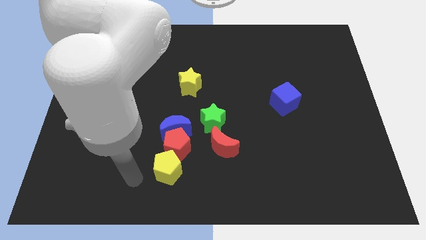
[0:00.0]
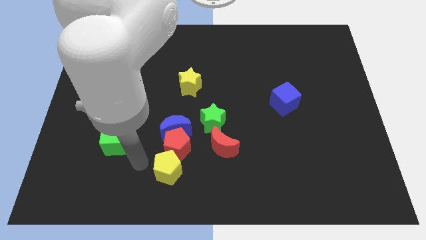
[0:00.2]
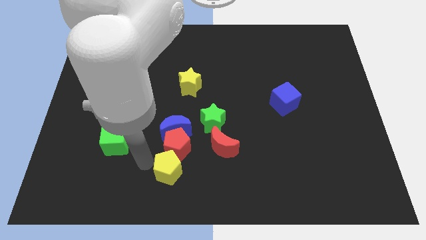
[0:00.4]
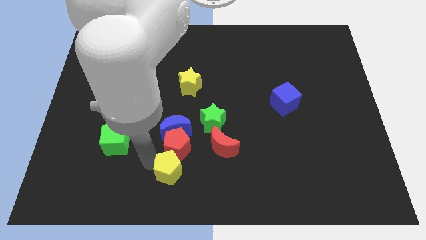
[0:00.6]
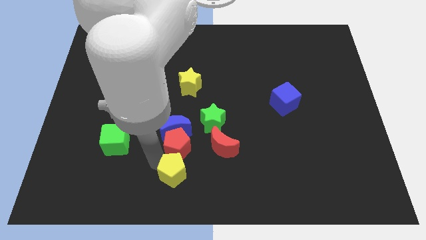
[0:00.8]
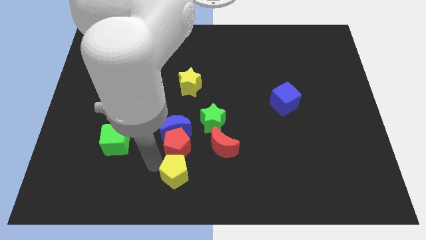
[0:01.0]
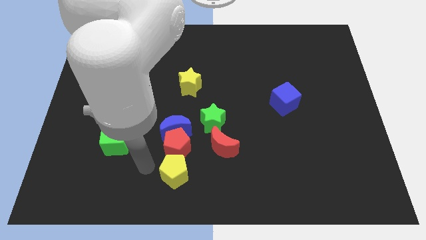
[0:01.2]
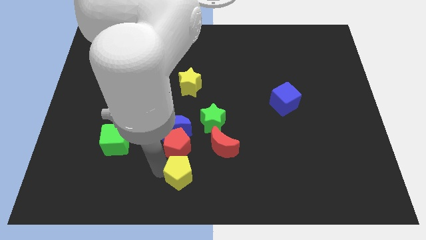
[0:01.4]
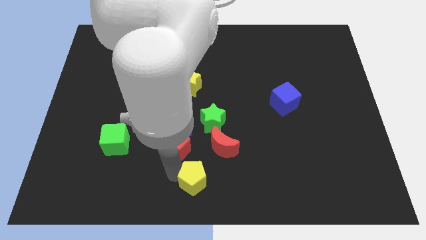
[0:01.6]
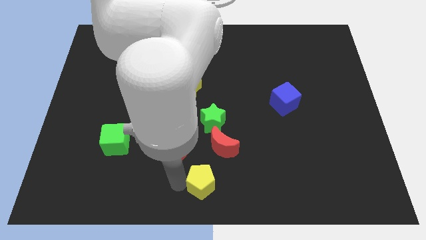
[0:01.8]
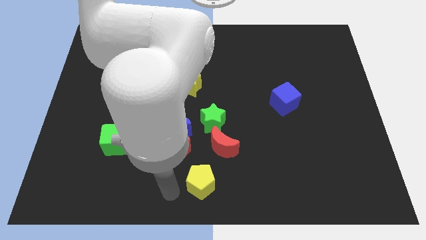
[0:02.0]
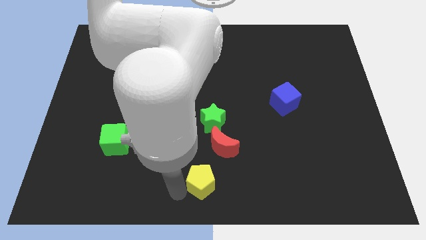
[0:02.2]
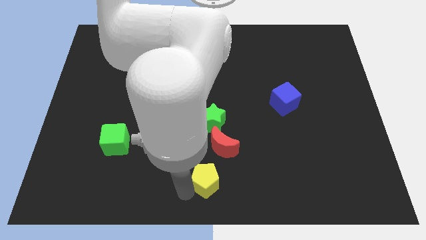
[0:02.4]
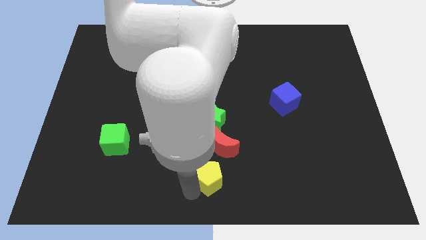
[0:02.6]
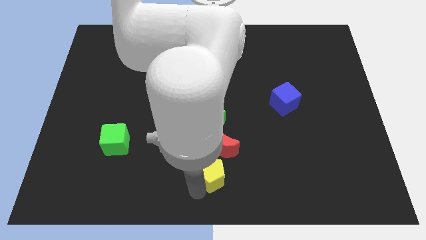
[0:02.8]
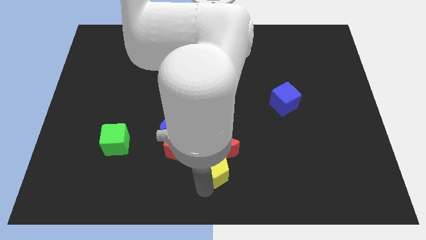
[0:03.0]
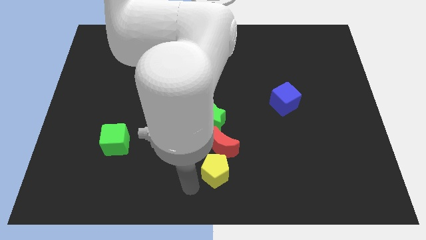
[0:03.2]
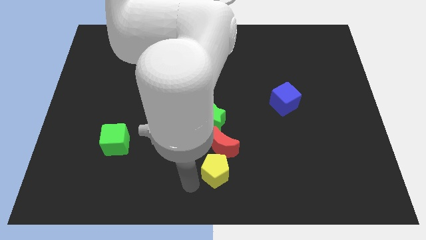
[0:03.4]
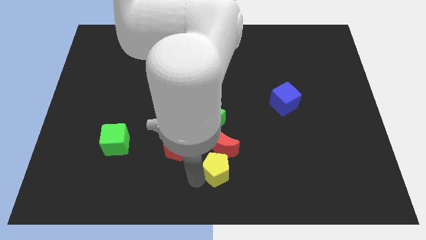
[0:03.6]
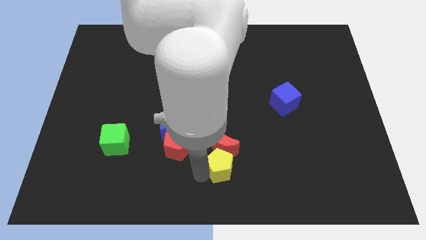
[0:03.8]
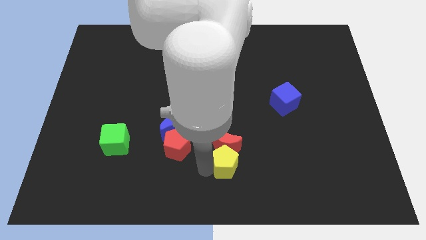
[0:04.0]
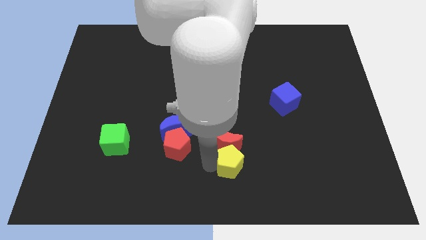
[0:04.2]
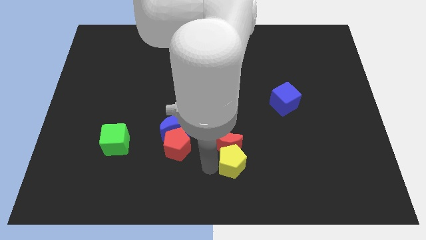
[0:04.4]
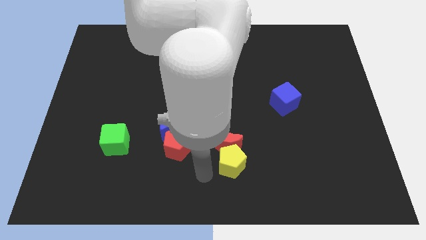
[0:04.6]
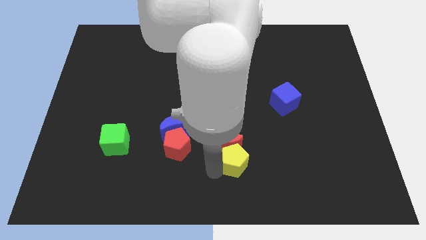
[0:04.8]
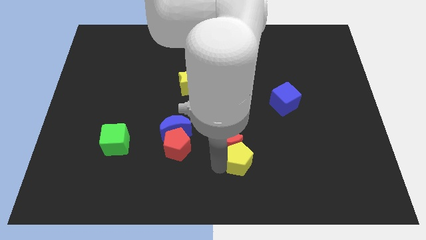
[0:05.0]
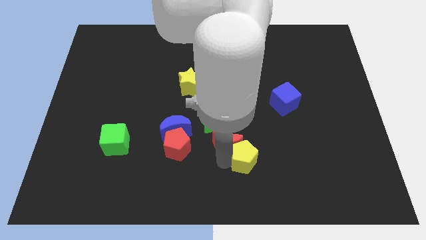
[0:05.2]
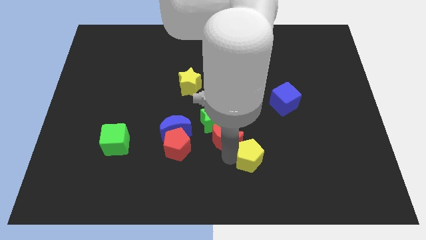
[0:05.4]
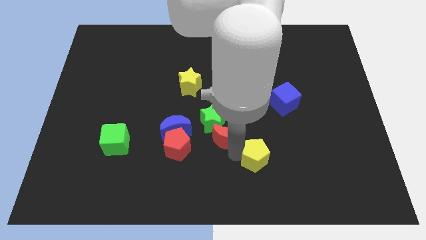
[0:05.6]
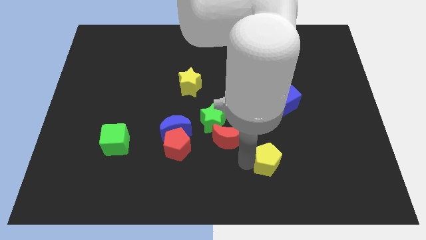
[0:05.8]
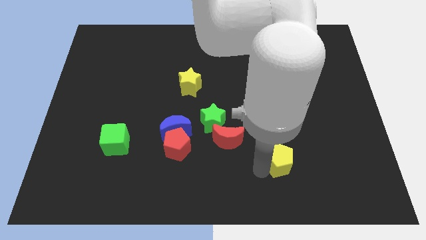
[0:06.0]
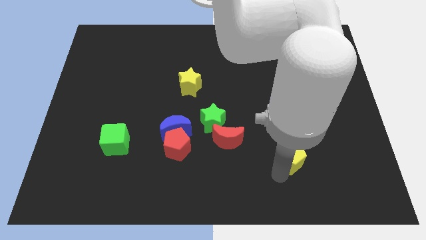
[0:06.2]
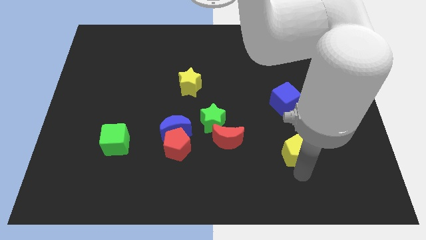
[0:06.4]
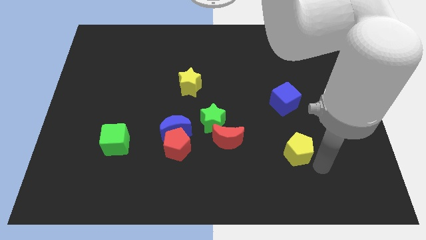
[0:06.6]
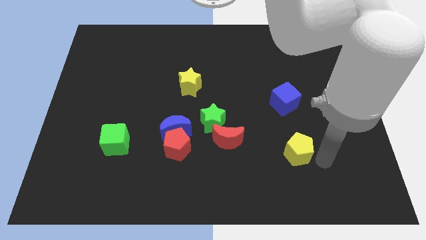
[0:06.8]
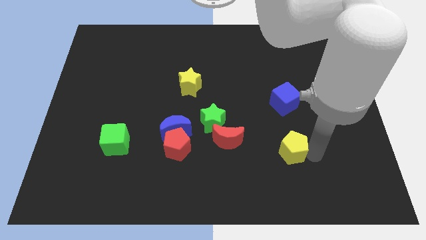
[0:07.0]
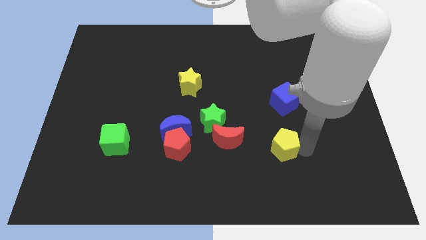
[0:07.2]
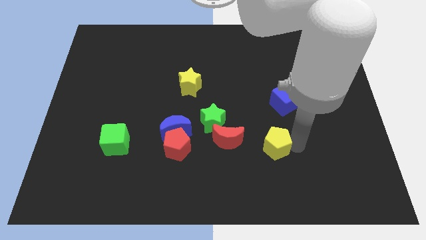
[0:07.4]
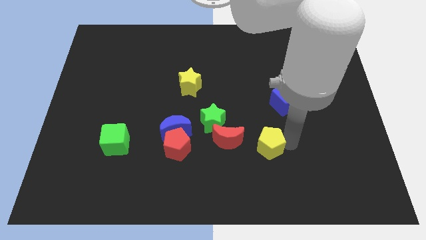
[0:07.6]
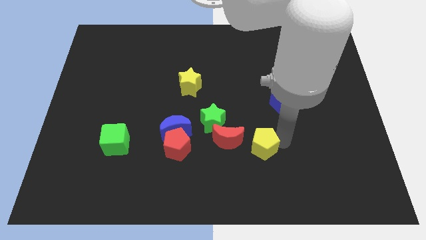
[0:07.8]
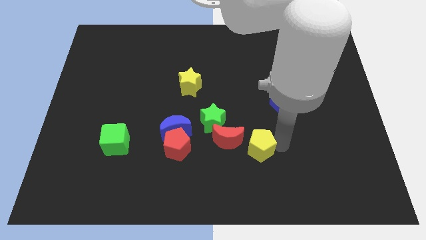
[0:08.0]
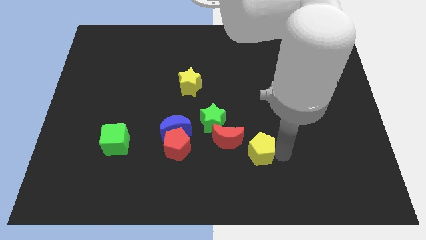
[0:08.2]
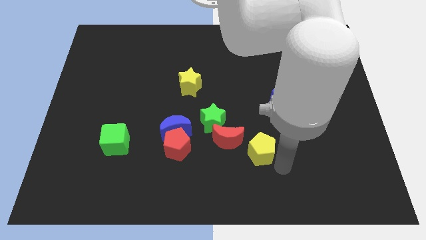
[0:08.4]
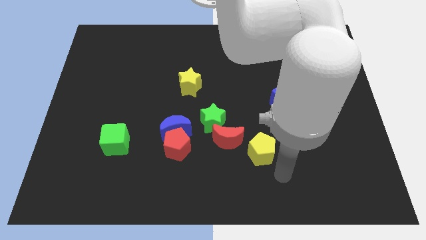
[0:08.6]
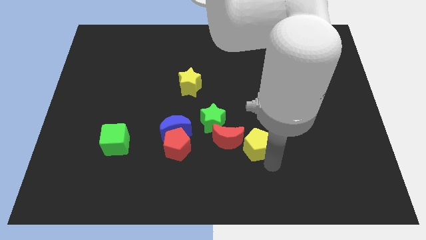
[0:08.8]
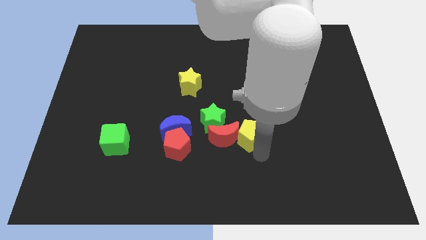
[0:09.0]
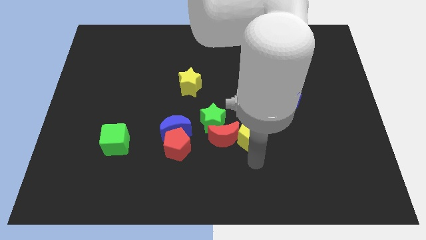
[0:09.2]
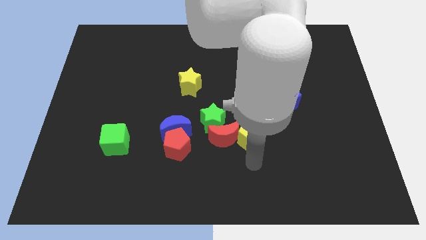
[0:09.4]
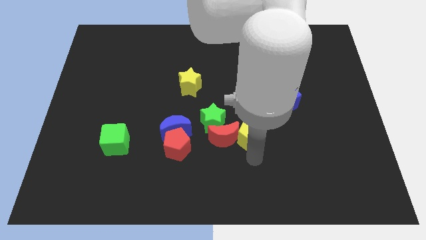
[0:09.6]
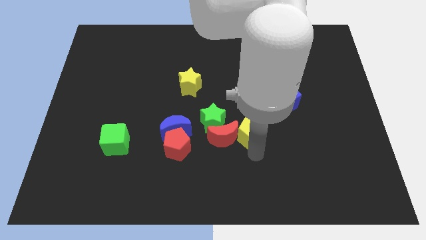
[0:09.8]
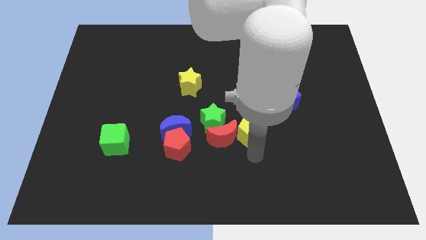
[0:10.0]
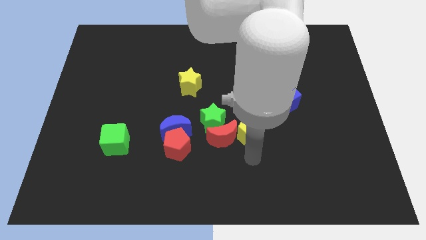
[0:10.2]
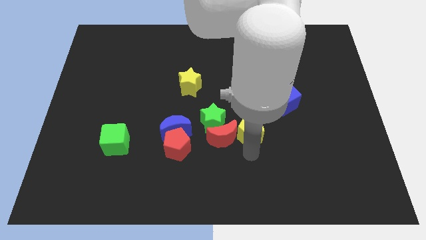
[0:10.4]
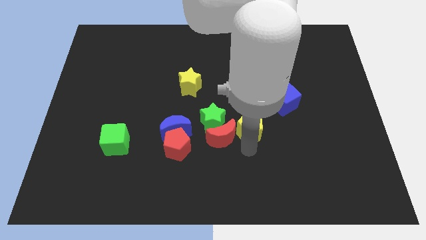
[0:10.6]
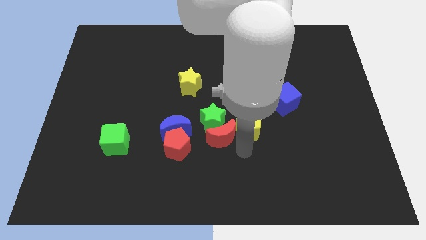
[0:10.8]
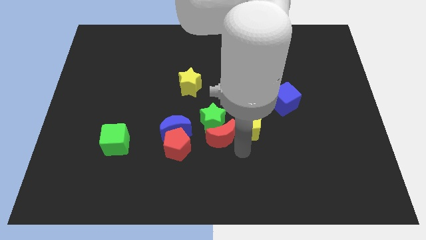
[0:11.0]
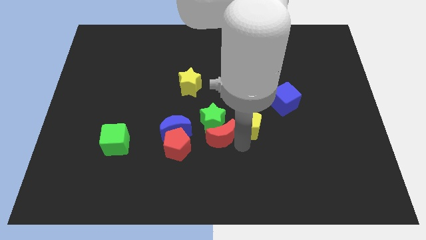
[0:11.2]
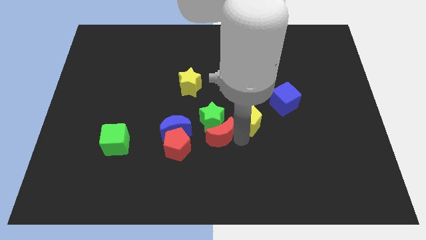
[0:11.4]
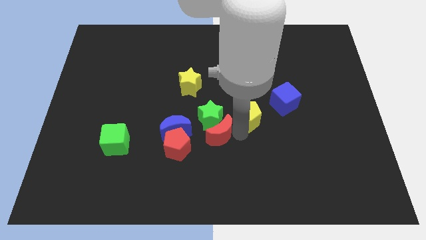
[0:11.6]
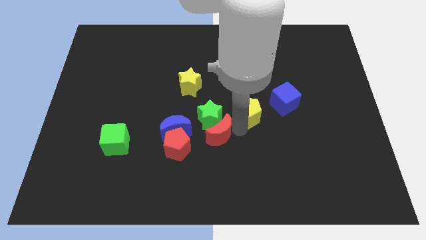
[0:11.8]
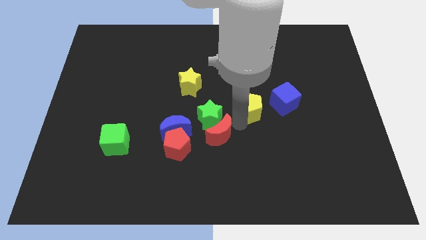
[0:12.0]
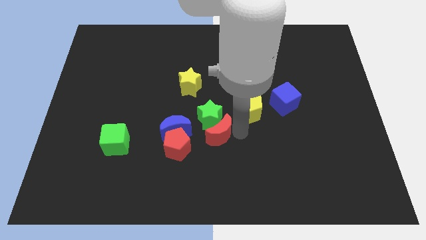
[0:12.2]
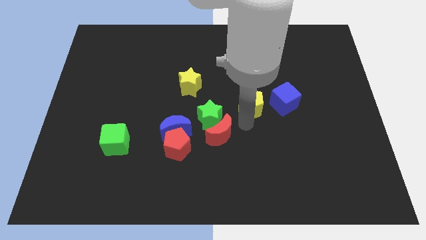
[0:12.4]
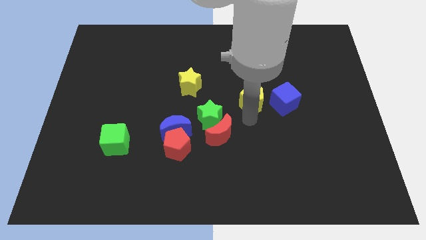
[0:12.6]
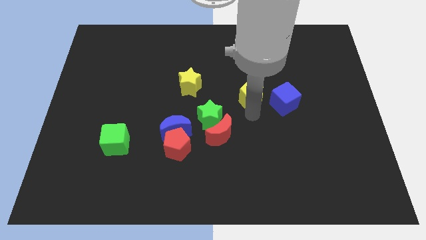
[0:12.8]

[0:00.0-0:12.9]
push the yellow pentagon to the top left of the blue cube

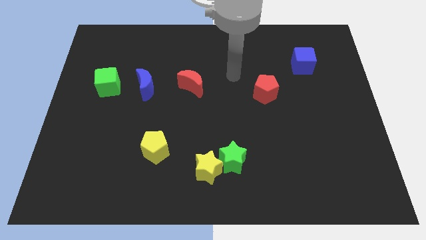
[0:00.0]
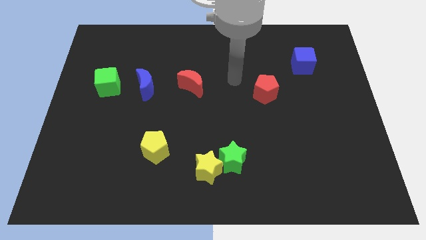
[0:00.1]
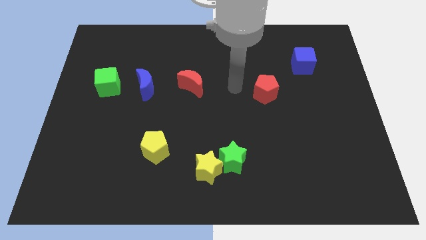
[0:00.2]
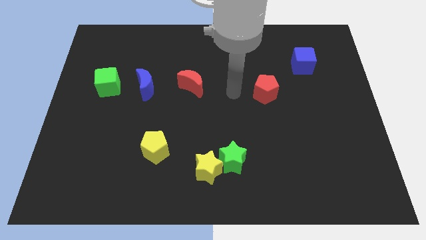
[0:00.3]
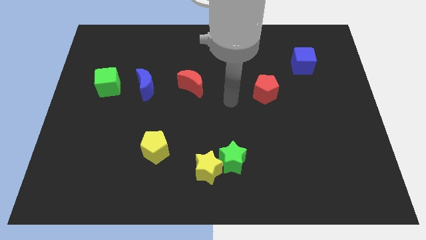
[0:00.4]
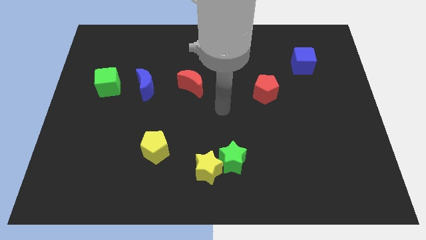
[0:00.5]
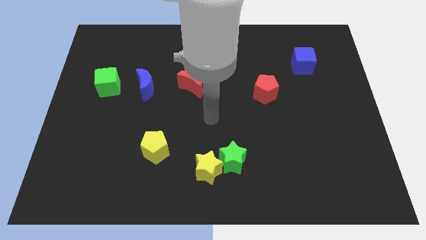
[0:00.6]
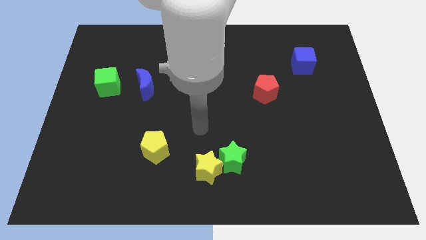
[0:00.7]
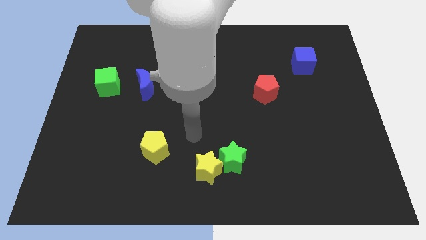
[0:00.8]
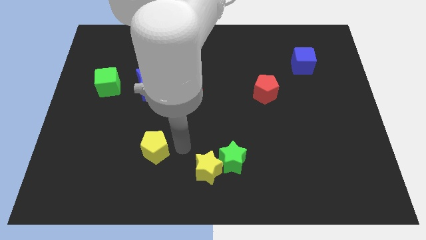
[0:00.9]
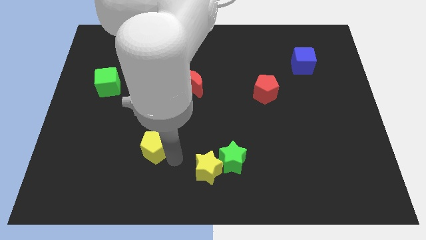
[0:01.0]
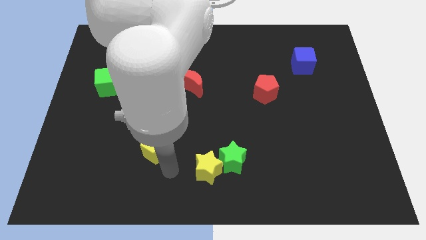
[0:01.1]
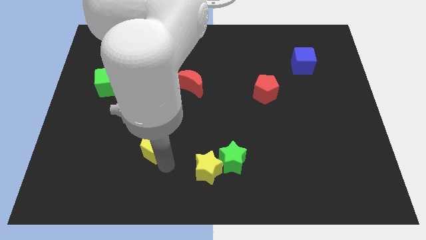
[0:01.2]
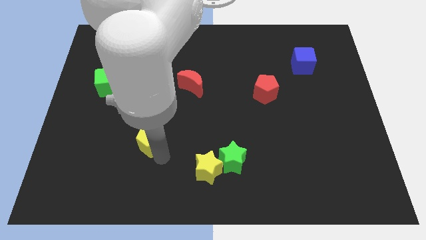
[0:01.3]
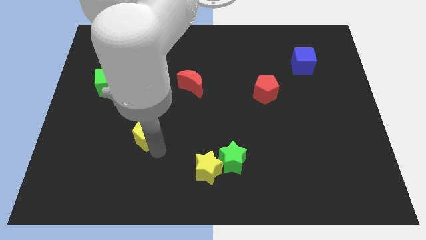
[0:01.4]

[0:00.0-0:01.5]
put the yellow pentagon below the blue moon
